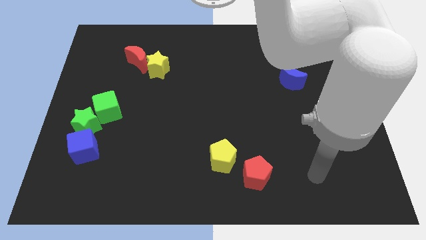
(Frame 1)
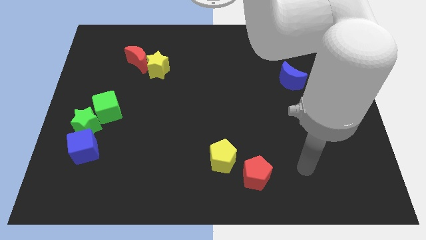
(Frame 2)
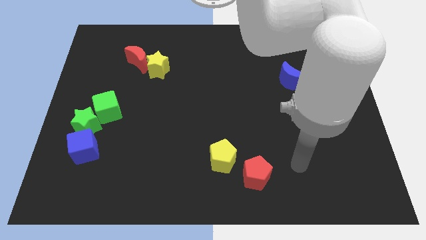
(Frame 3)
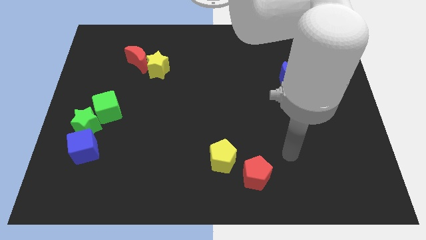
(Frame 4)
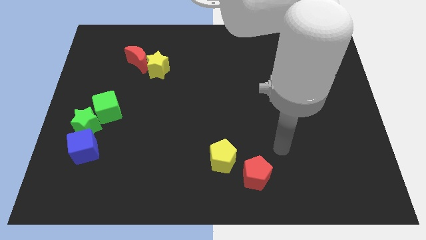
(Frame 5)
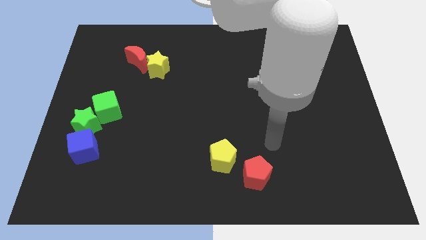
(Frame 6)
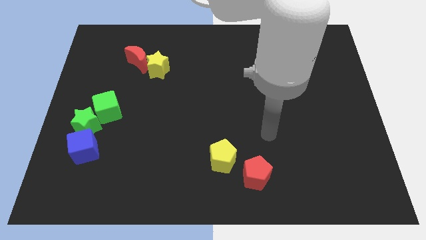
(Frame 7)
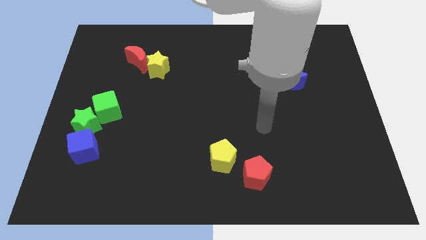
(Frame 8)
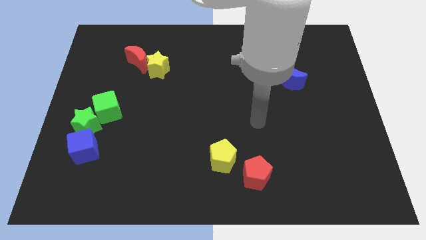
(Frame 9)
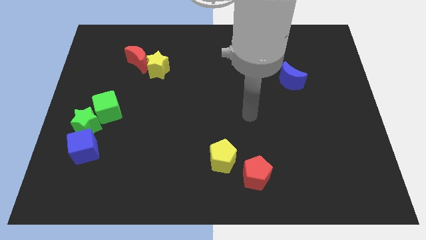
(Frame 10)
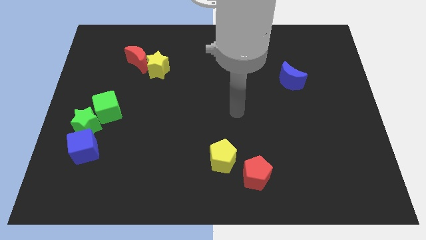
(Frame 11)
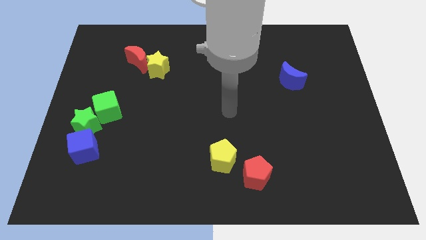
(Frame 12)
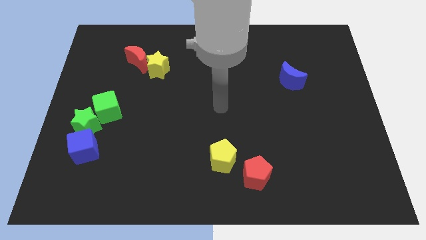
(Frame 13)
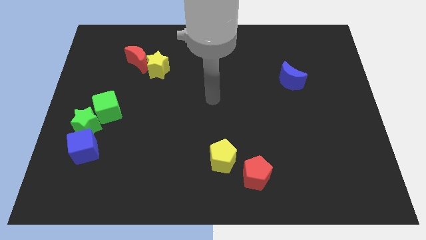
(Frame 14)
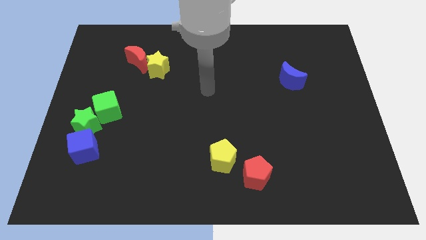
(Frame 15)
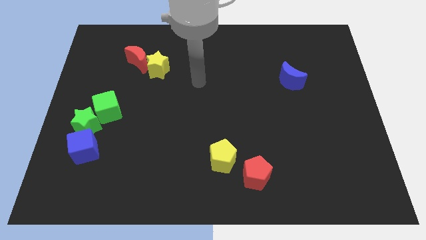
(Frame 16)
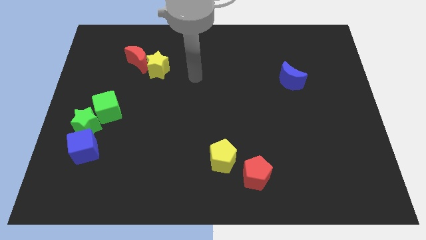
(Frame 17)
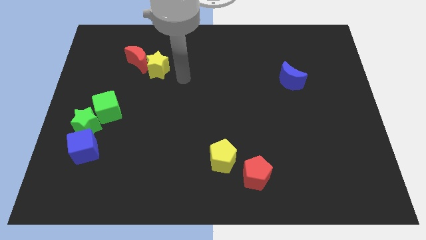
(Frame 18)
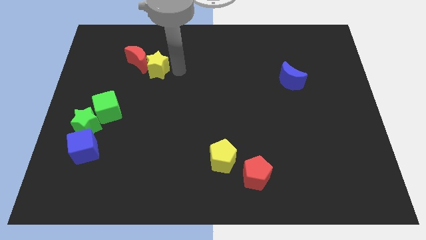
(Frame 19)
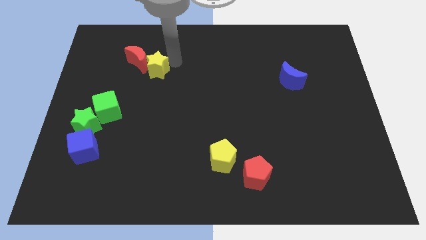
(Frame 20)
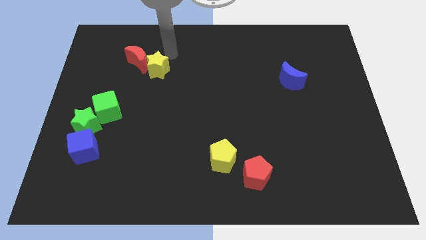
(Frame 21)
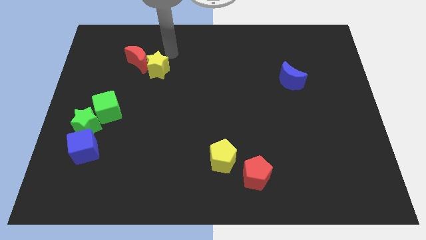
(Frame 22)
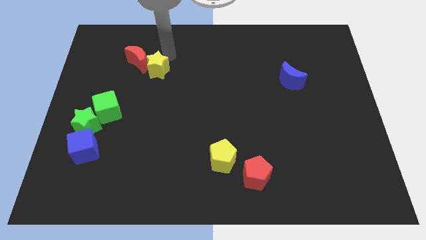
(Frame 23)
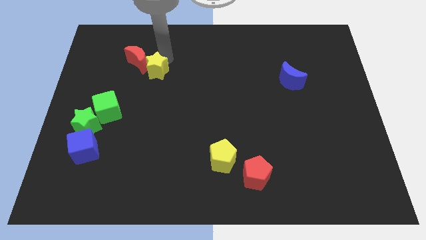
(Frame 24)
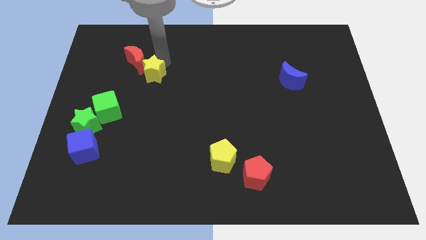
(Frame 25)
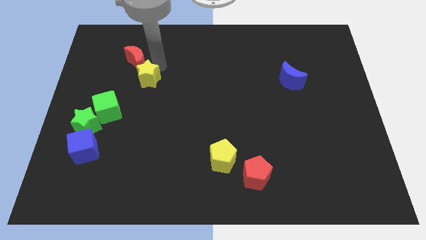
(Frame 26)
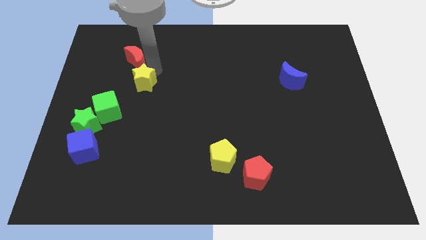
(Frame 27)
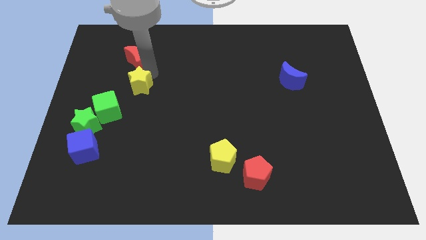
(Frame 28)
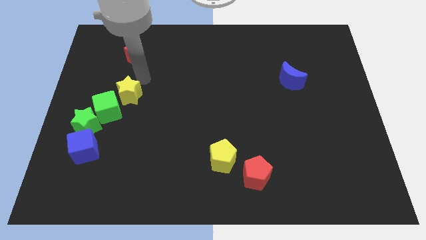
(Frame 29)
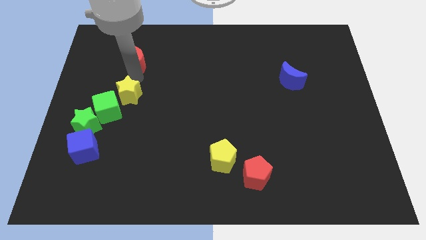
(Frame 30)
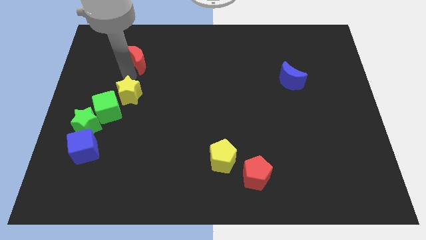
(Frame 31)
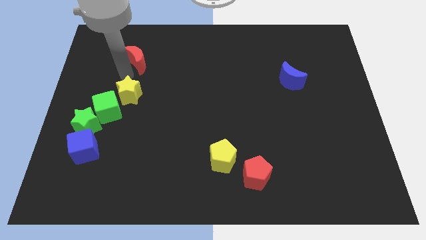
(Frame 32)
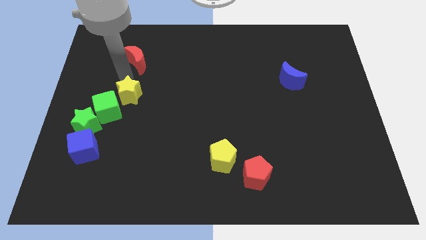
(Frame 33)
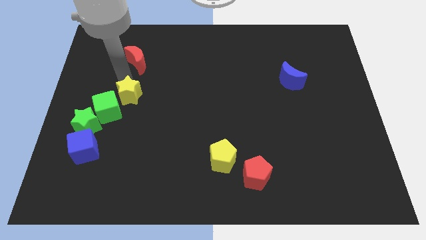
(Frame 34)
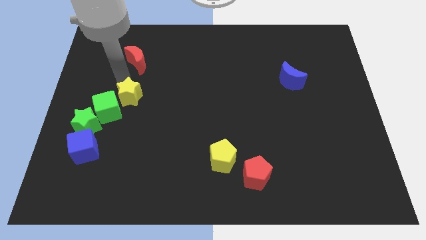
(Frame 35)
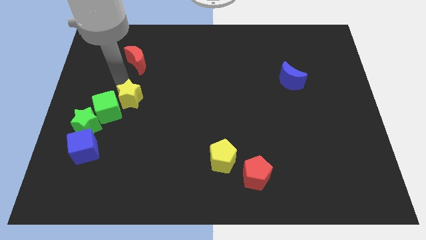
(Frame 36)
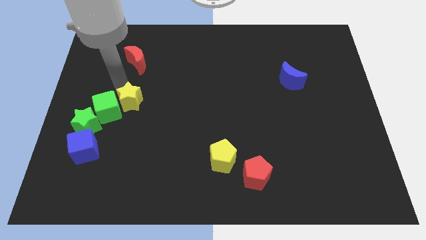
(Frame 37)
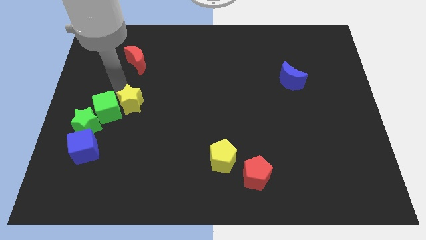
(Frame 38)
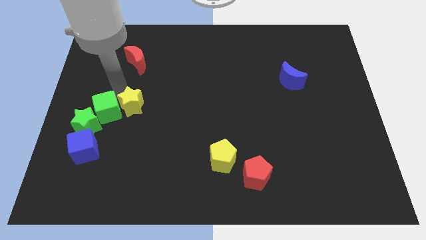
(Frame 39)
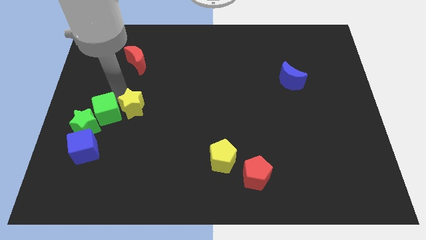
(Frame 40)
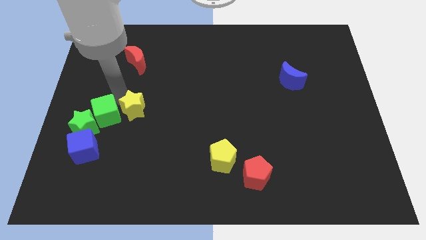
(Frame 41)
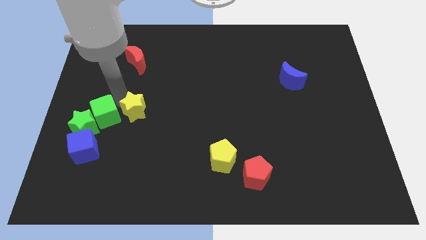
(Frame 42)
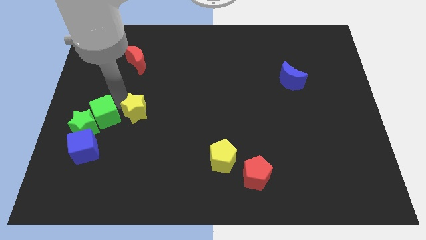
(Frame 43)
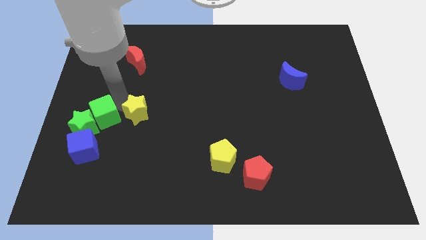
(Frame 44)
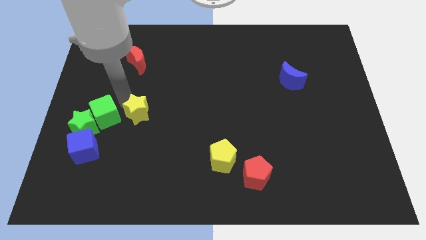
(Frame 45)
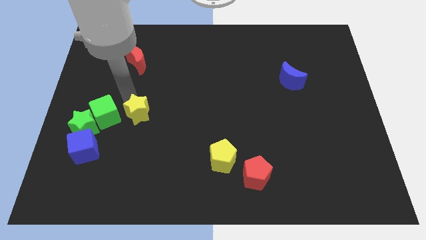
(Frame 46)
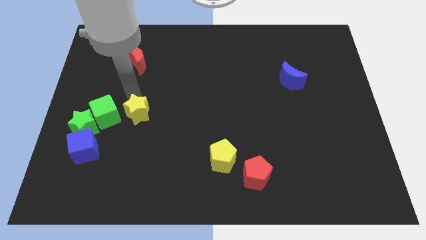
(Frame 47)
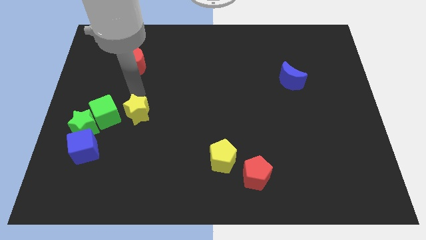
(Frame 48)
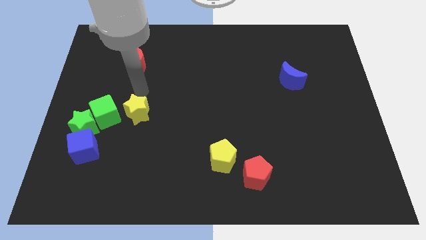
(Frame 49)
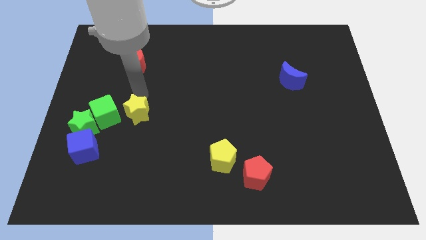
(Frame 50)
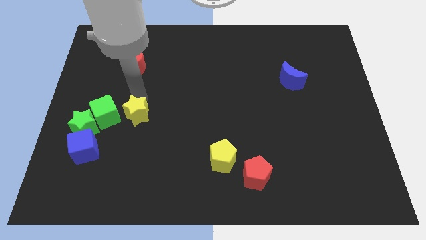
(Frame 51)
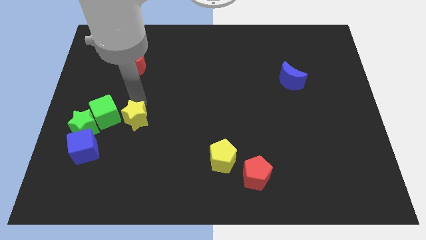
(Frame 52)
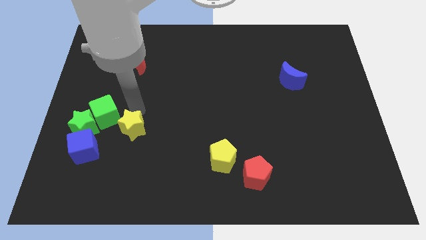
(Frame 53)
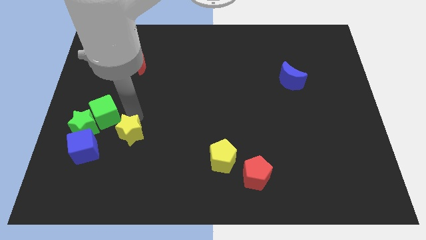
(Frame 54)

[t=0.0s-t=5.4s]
slide the yellow star to the right of the blue cube

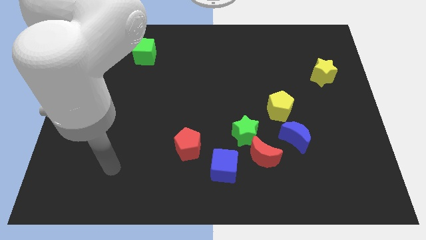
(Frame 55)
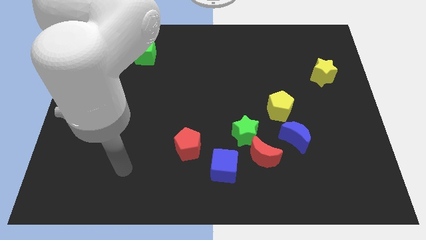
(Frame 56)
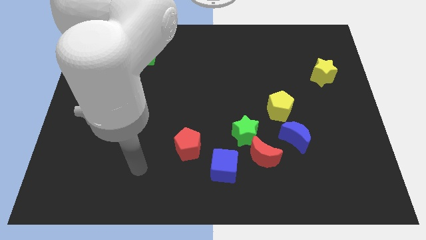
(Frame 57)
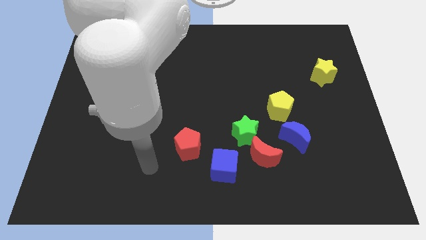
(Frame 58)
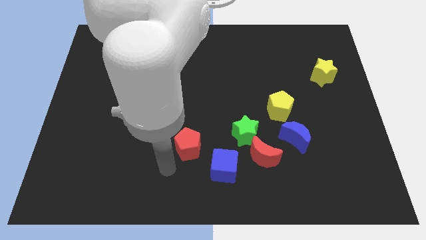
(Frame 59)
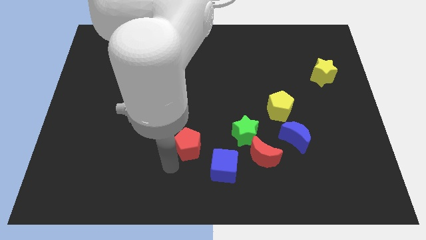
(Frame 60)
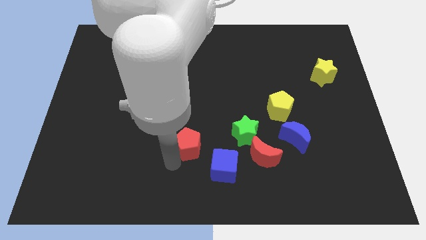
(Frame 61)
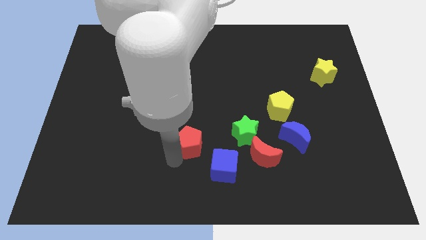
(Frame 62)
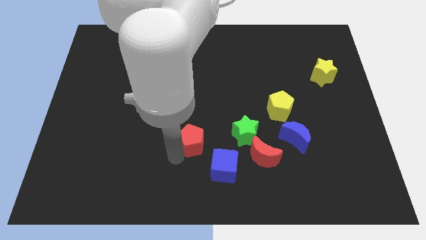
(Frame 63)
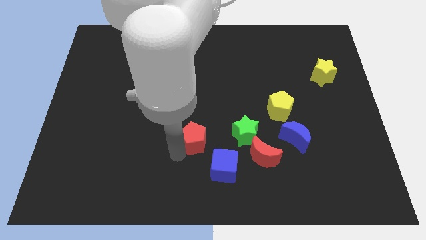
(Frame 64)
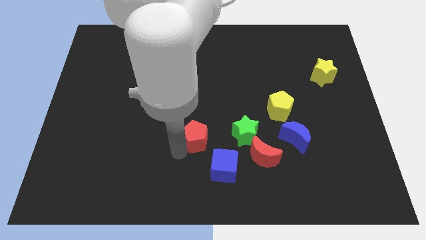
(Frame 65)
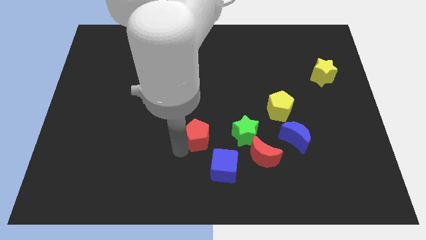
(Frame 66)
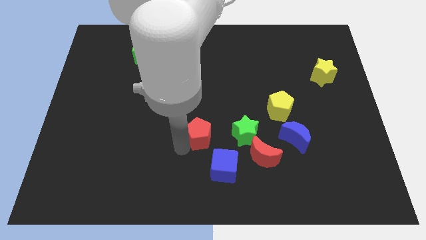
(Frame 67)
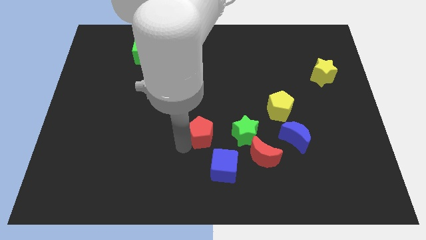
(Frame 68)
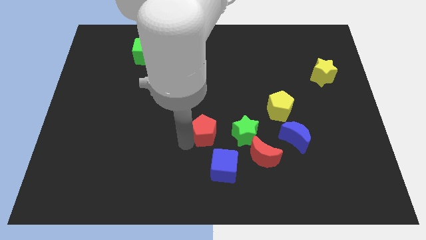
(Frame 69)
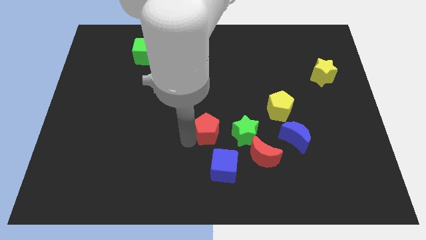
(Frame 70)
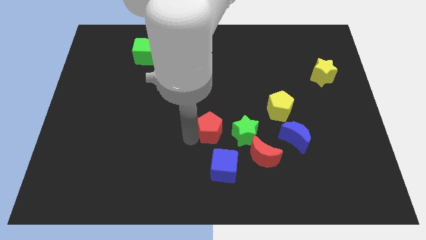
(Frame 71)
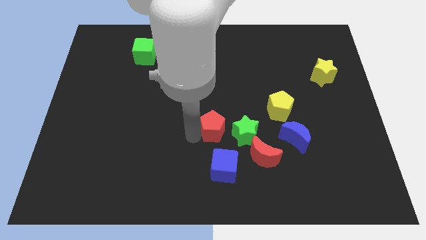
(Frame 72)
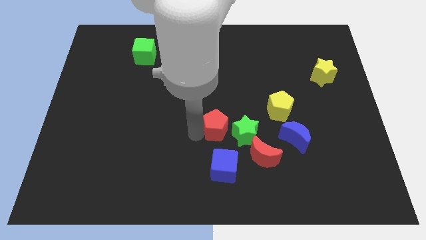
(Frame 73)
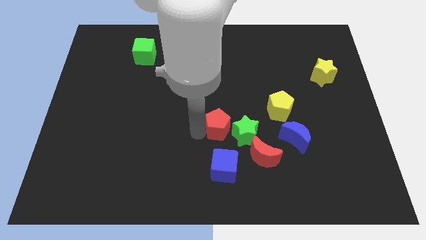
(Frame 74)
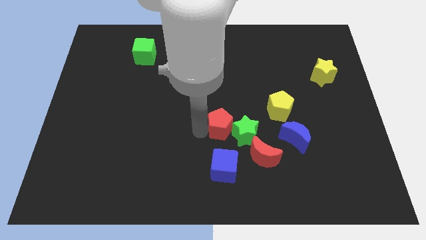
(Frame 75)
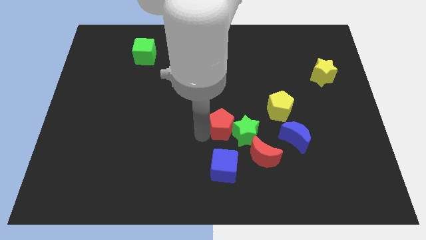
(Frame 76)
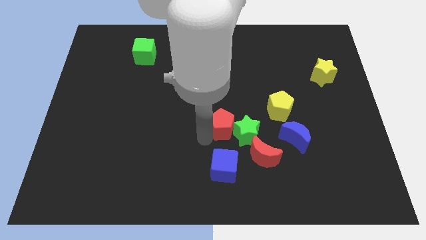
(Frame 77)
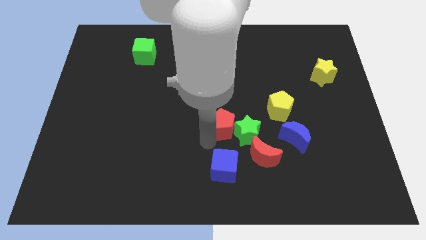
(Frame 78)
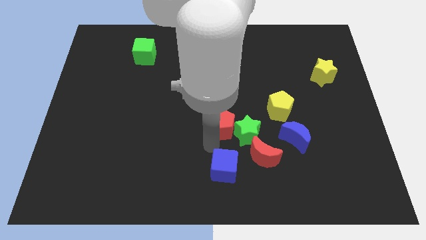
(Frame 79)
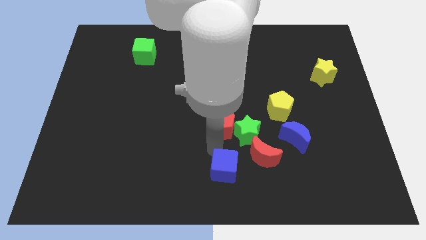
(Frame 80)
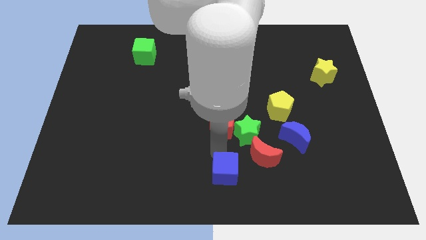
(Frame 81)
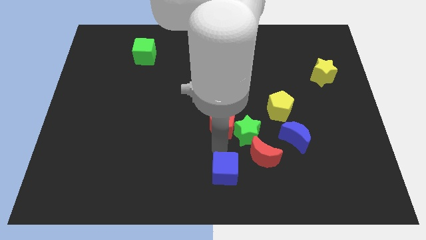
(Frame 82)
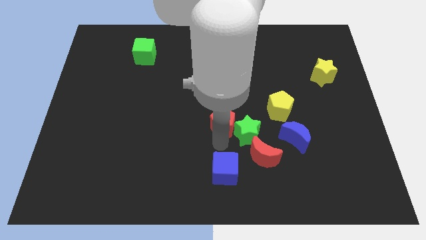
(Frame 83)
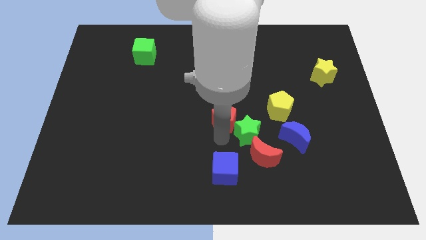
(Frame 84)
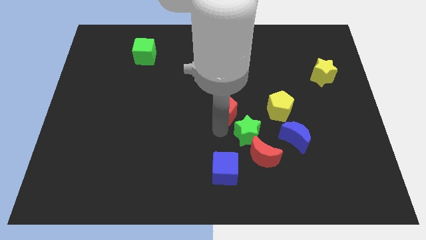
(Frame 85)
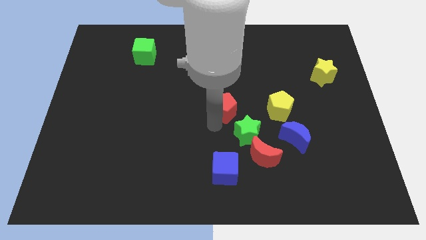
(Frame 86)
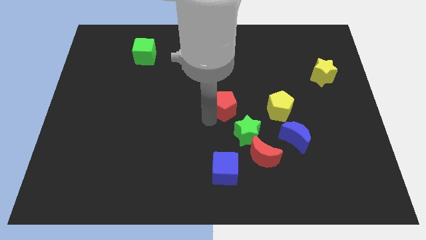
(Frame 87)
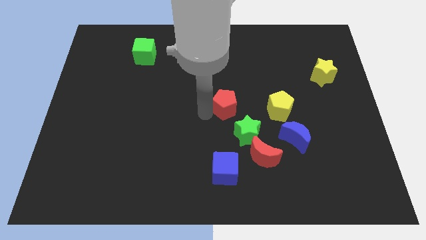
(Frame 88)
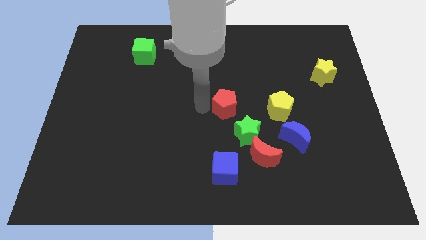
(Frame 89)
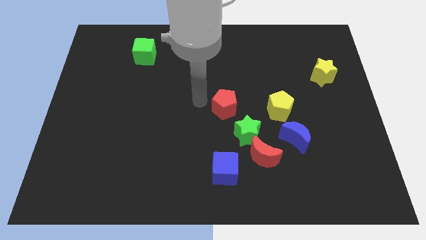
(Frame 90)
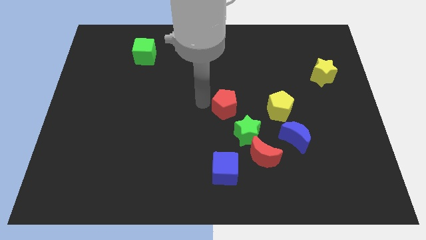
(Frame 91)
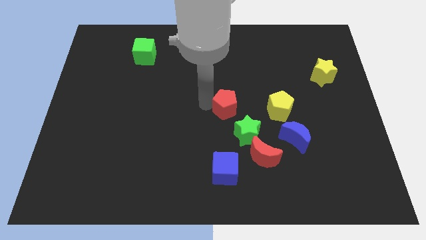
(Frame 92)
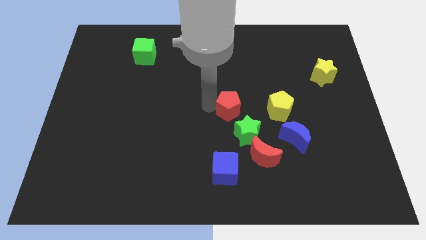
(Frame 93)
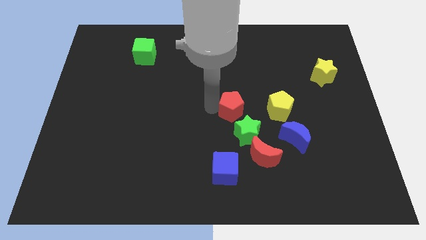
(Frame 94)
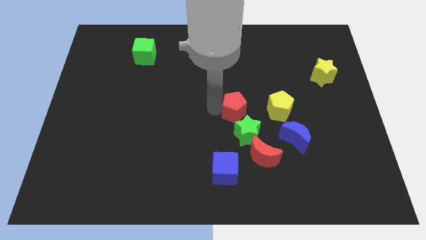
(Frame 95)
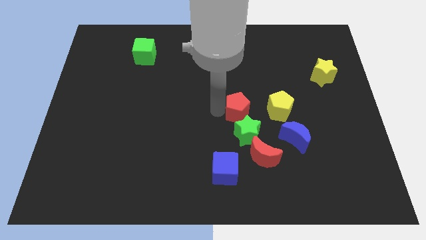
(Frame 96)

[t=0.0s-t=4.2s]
push the red pentagon to the top side of the red moon
